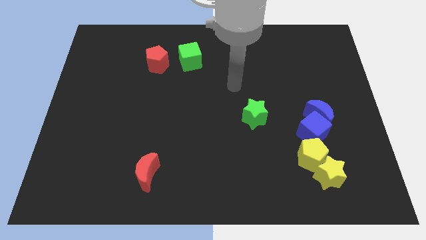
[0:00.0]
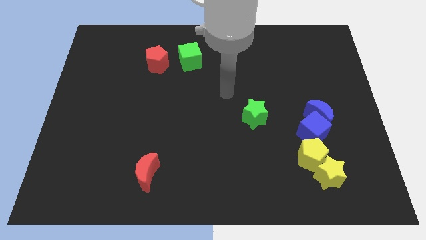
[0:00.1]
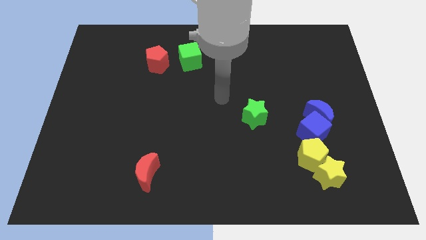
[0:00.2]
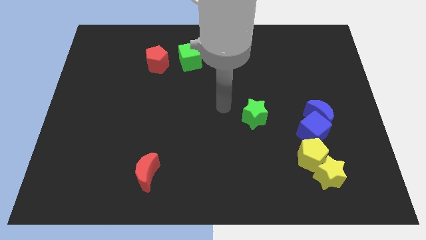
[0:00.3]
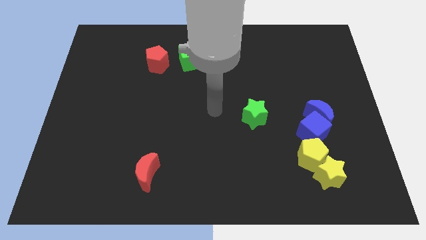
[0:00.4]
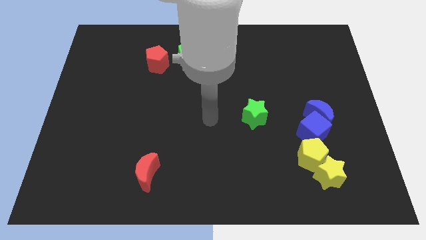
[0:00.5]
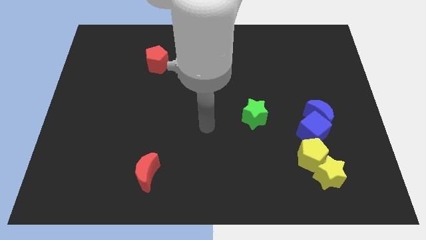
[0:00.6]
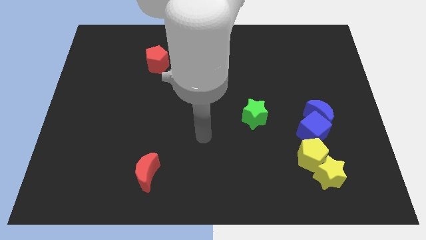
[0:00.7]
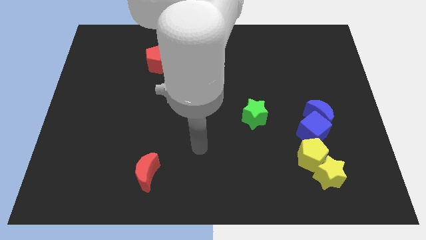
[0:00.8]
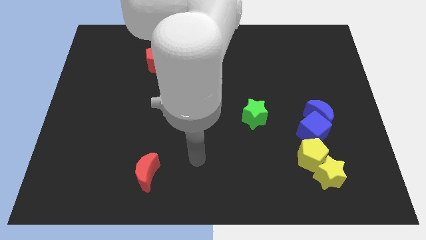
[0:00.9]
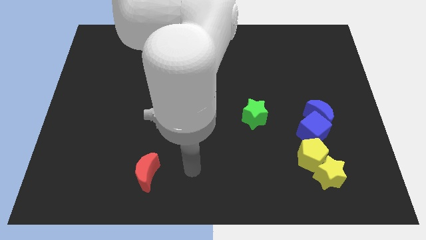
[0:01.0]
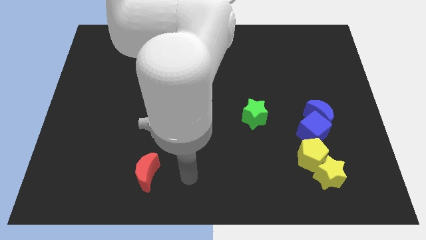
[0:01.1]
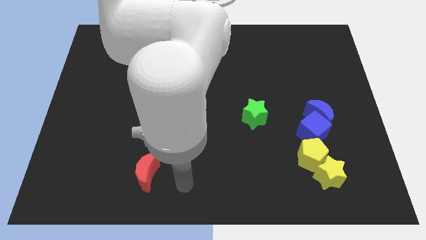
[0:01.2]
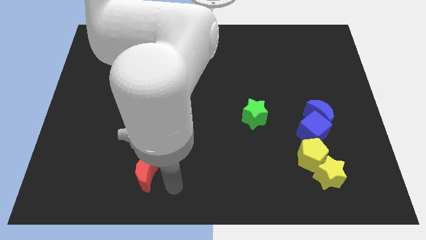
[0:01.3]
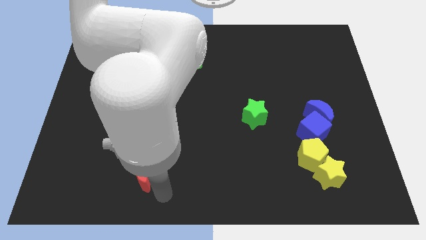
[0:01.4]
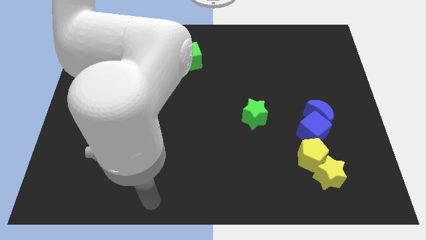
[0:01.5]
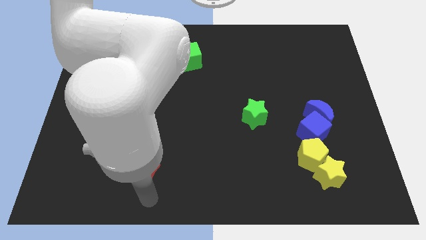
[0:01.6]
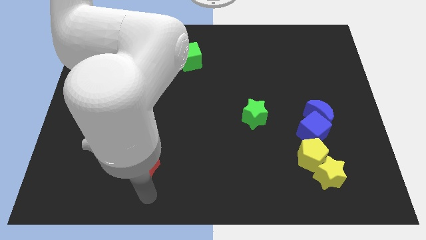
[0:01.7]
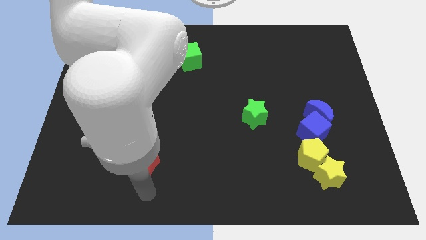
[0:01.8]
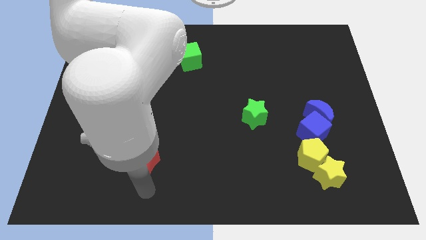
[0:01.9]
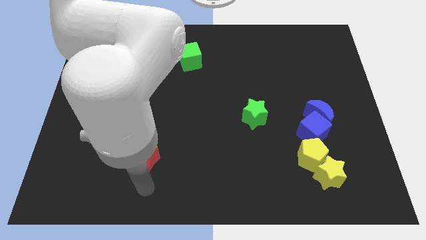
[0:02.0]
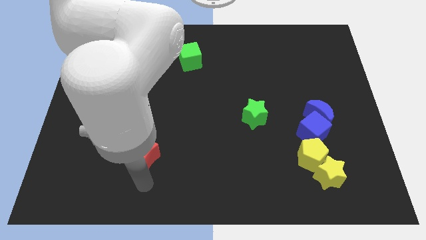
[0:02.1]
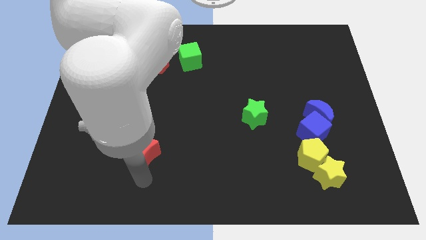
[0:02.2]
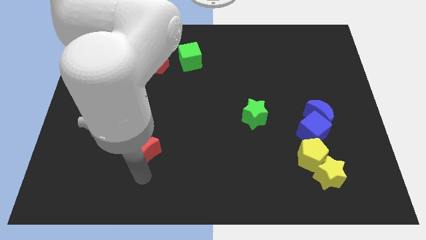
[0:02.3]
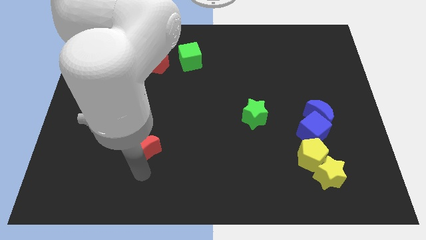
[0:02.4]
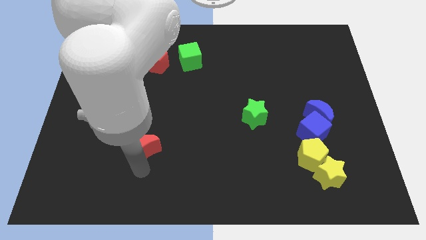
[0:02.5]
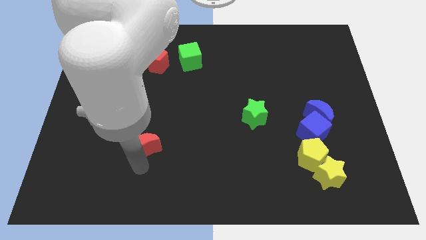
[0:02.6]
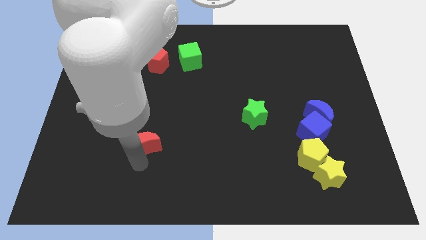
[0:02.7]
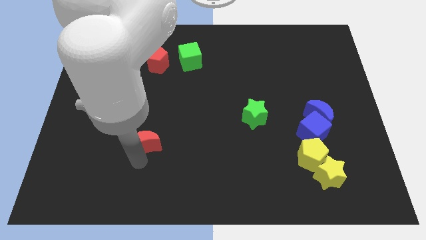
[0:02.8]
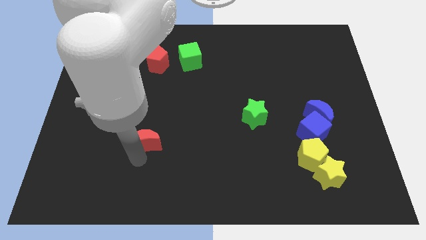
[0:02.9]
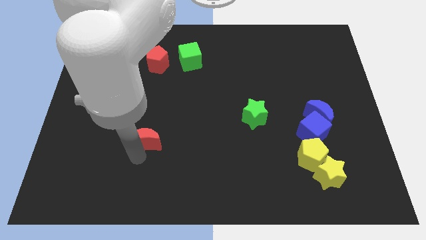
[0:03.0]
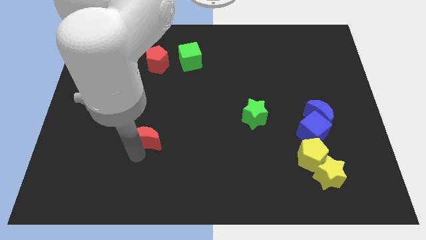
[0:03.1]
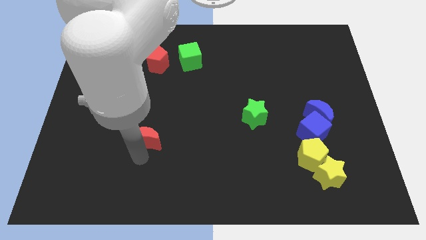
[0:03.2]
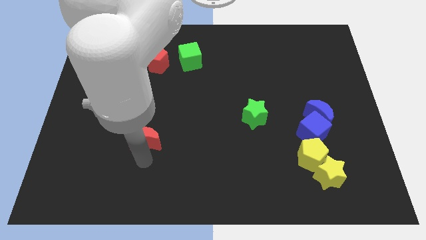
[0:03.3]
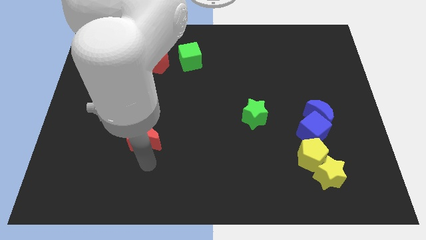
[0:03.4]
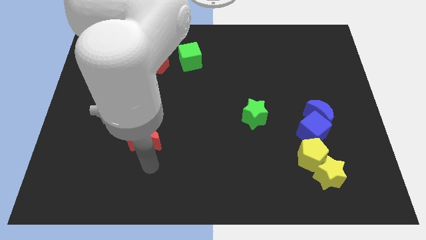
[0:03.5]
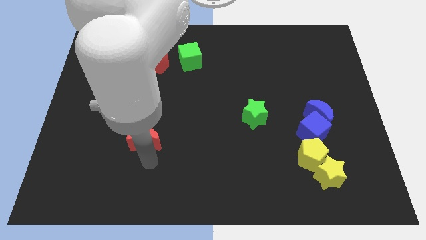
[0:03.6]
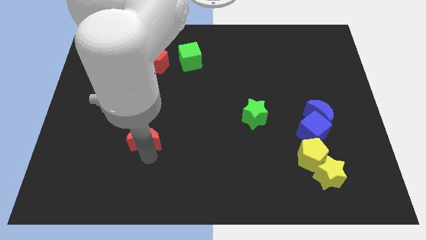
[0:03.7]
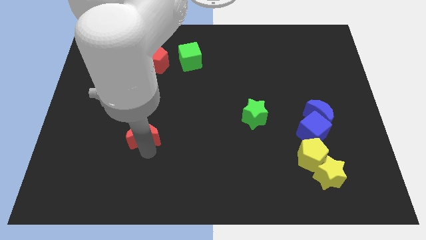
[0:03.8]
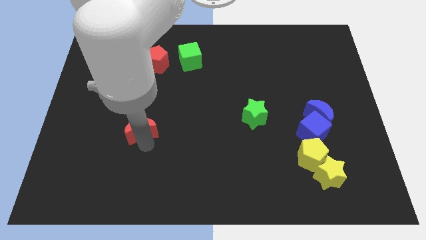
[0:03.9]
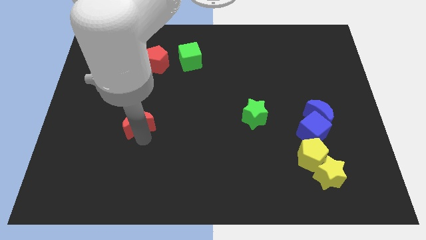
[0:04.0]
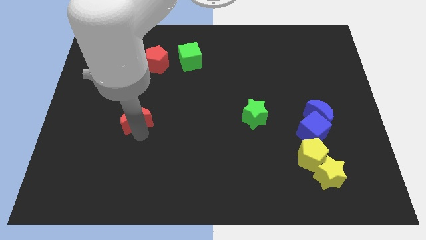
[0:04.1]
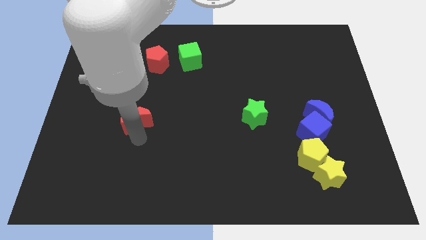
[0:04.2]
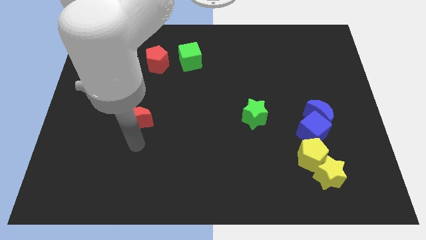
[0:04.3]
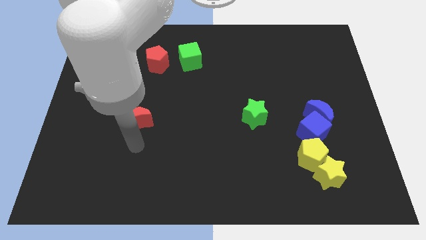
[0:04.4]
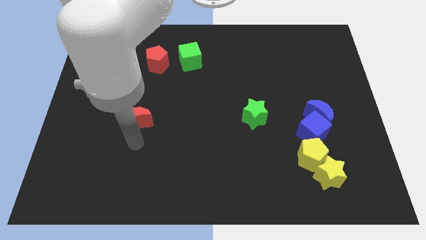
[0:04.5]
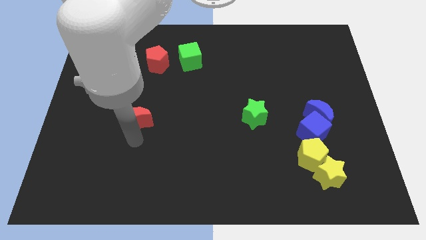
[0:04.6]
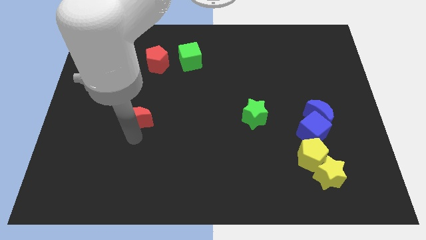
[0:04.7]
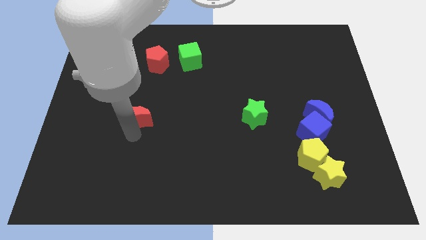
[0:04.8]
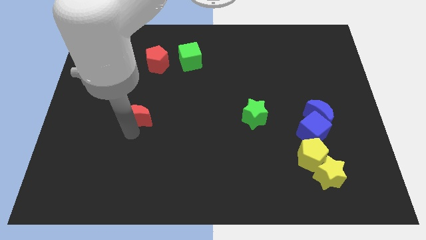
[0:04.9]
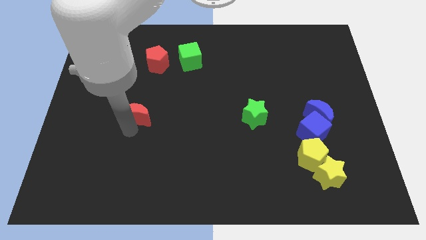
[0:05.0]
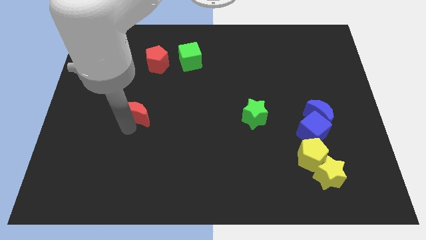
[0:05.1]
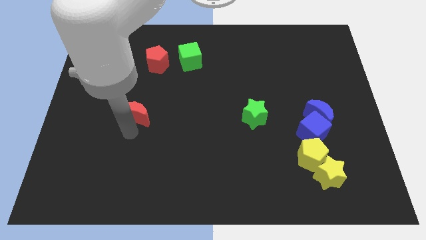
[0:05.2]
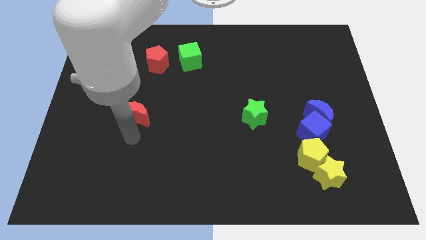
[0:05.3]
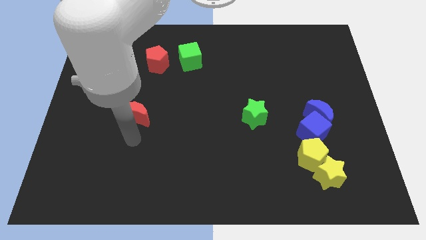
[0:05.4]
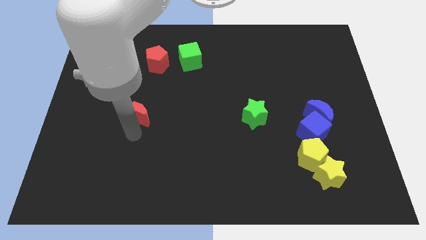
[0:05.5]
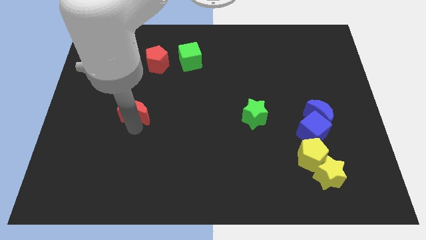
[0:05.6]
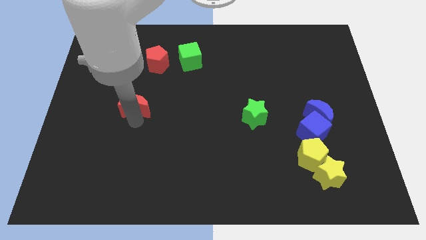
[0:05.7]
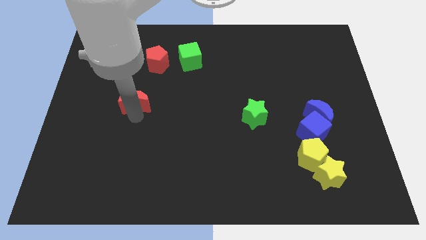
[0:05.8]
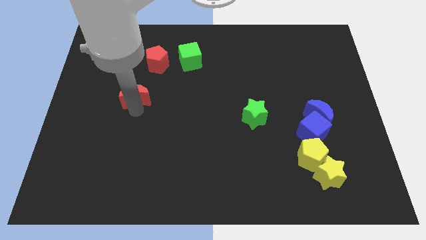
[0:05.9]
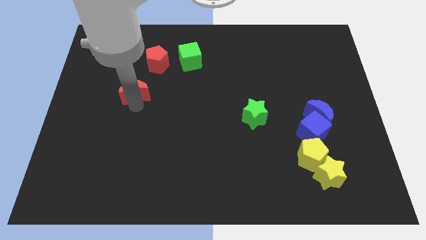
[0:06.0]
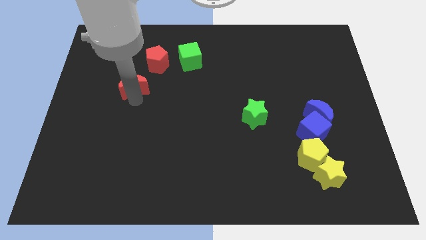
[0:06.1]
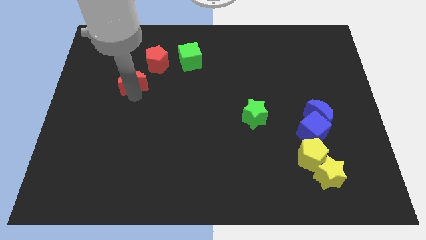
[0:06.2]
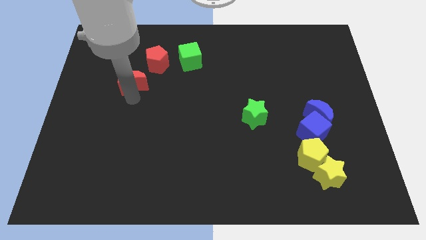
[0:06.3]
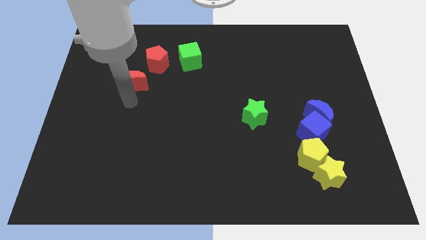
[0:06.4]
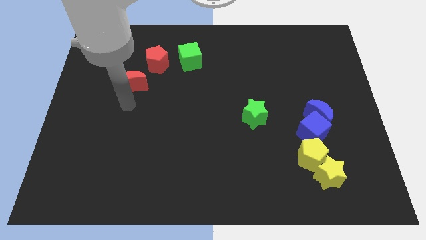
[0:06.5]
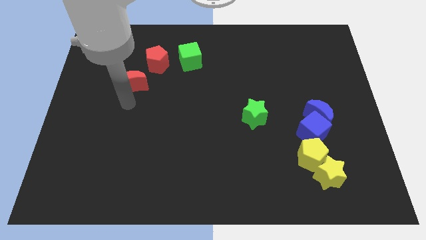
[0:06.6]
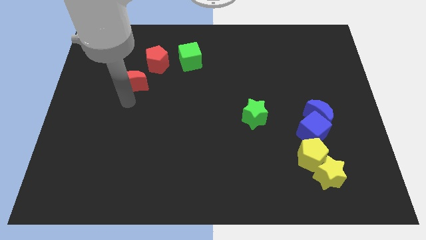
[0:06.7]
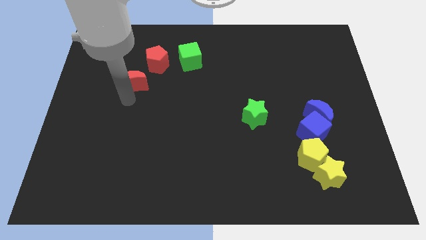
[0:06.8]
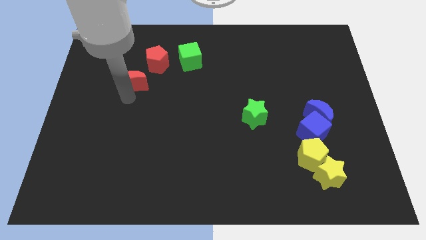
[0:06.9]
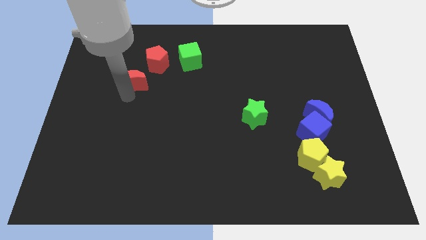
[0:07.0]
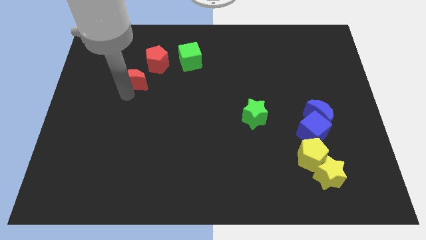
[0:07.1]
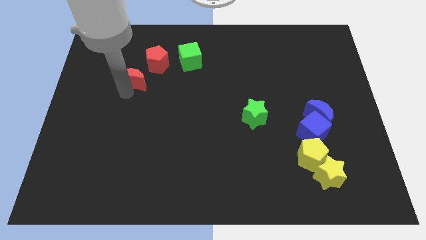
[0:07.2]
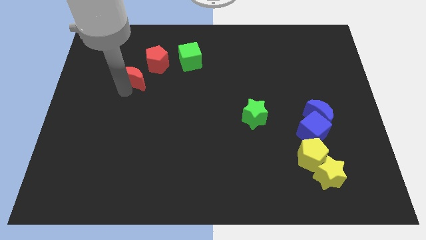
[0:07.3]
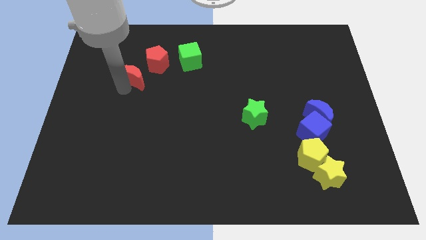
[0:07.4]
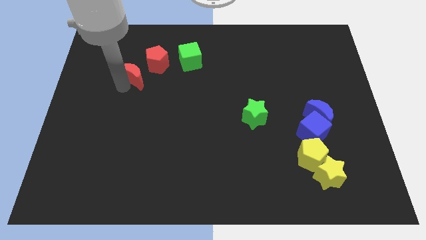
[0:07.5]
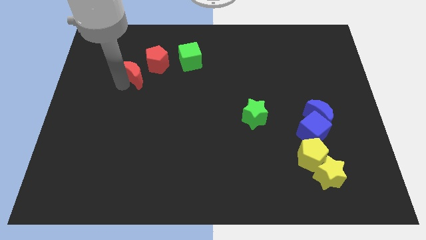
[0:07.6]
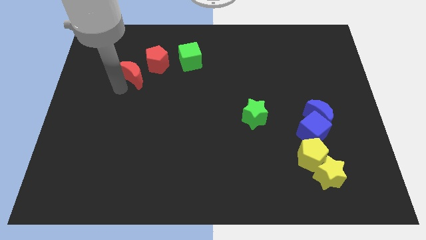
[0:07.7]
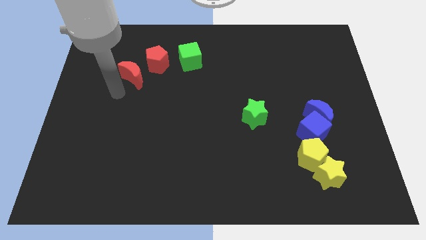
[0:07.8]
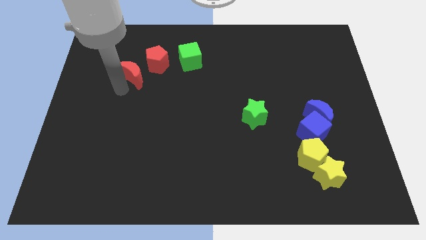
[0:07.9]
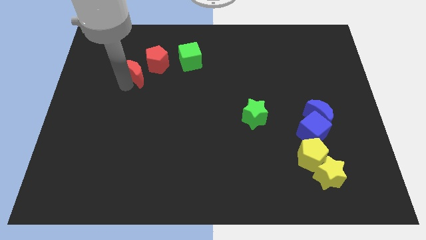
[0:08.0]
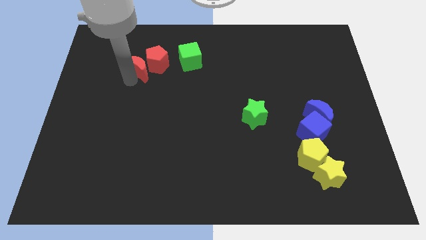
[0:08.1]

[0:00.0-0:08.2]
slide the red moon to the left of the green cube
